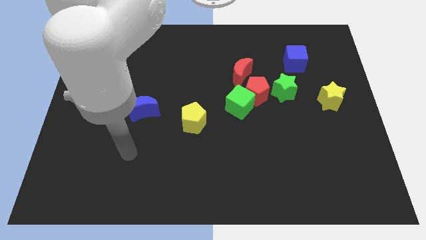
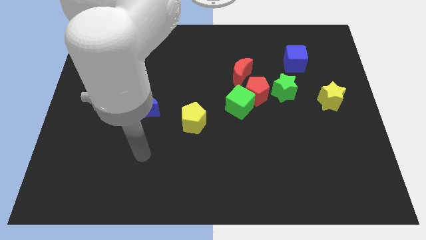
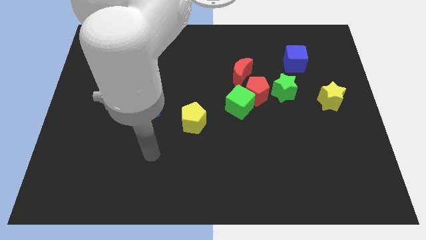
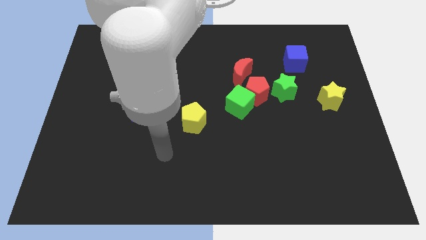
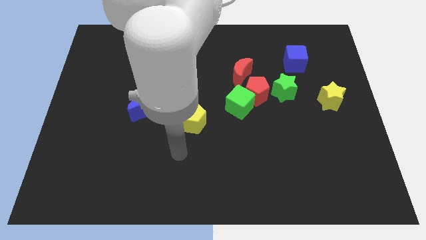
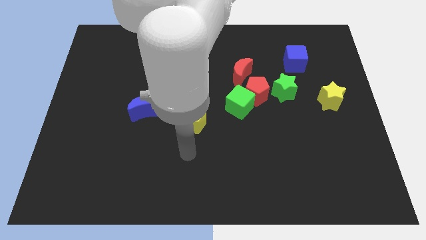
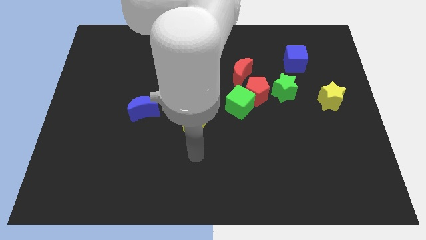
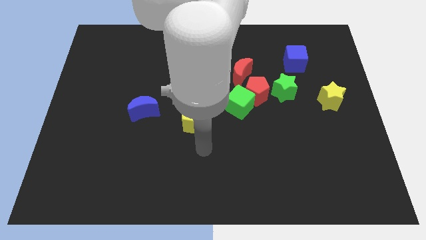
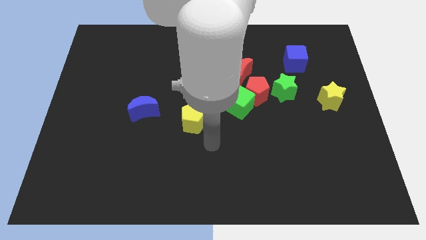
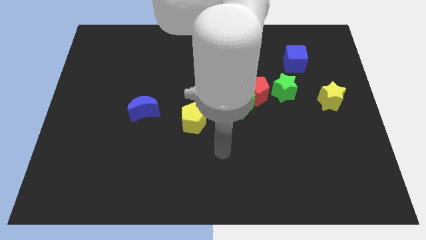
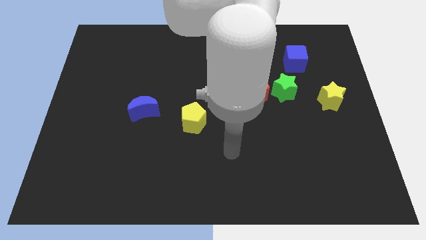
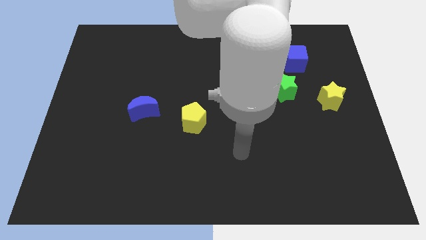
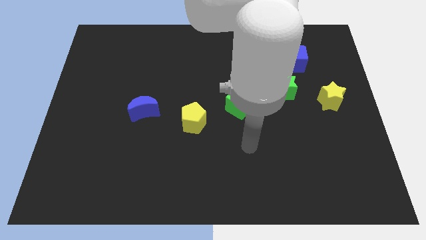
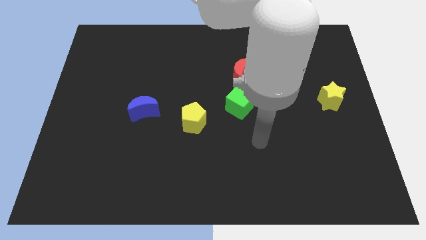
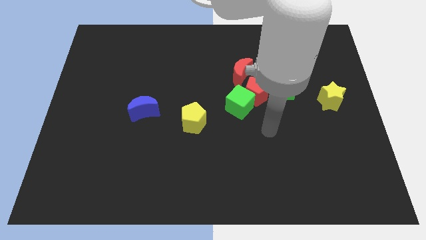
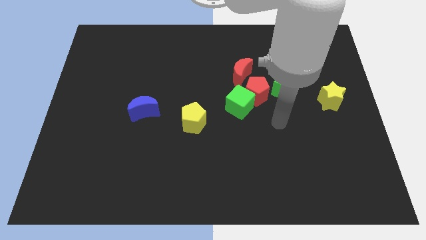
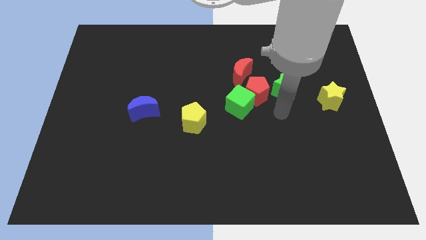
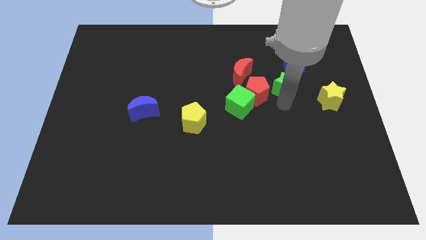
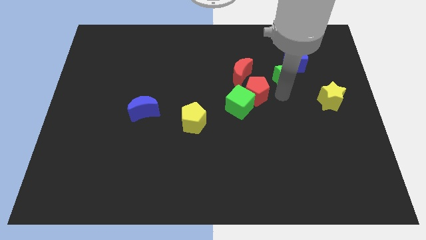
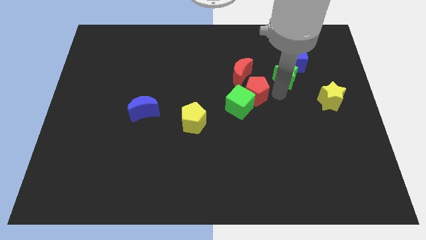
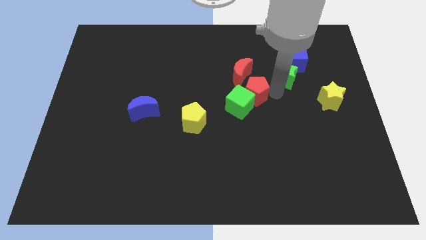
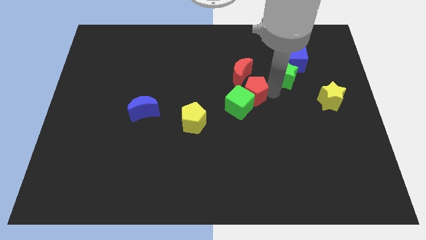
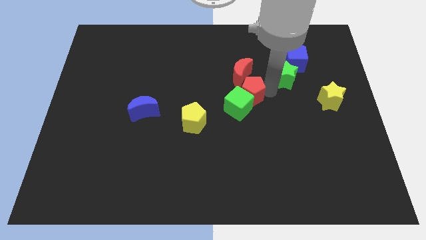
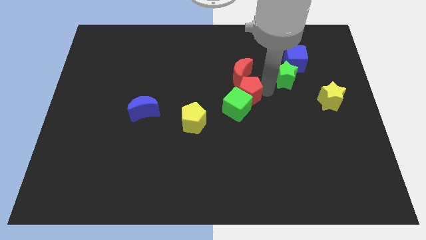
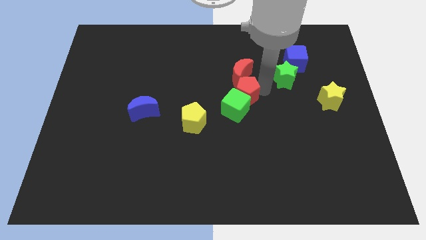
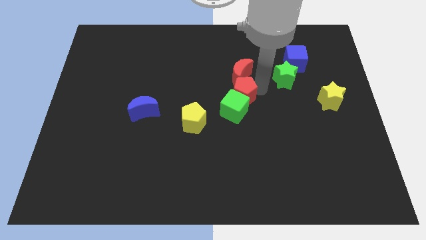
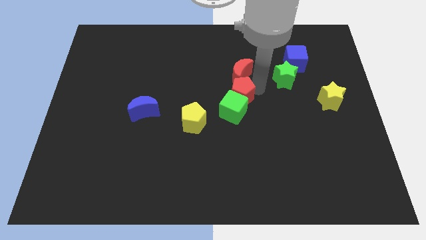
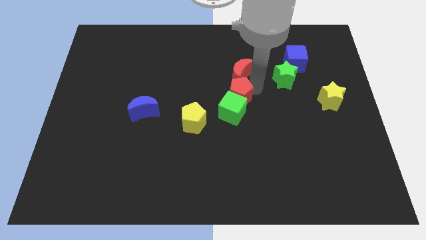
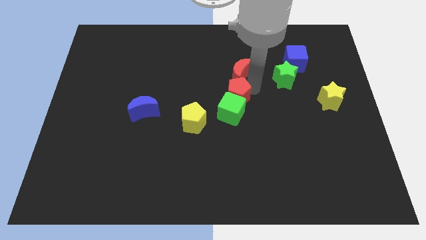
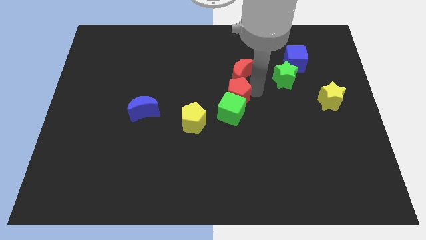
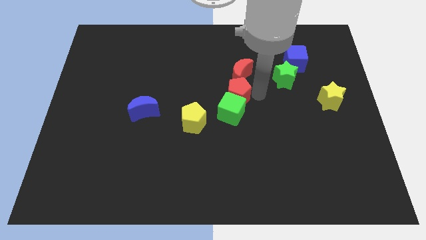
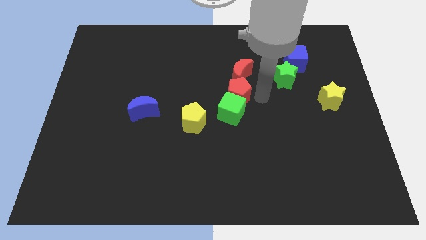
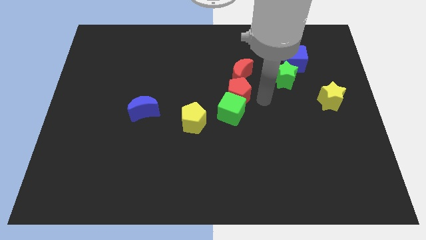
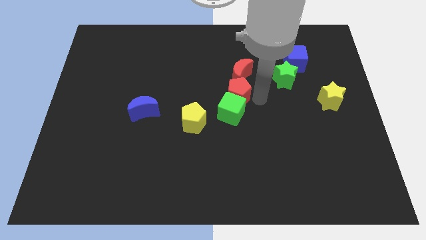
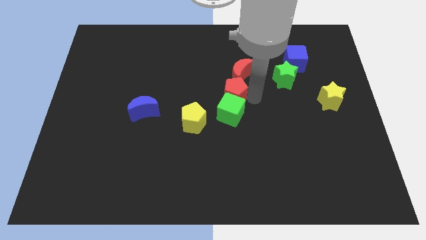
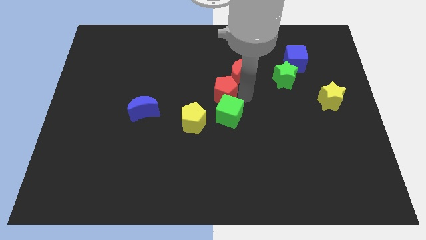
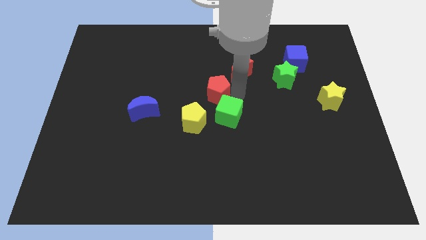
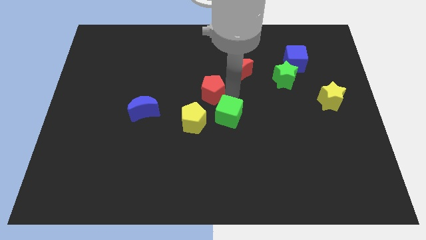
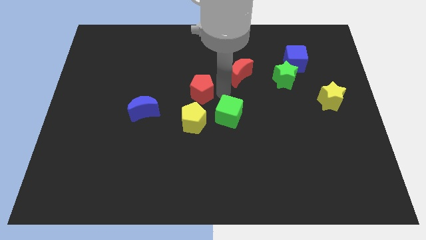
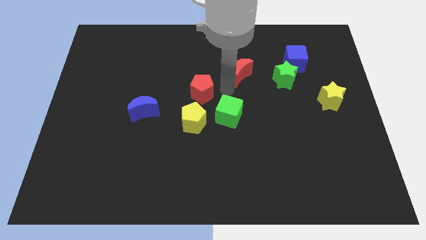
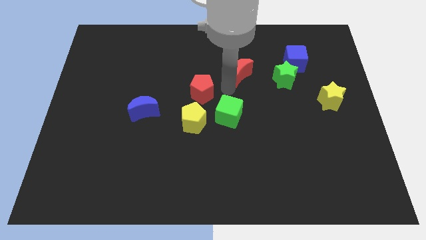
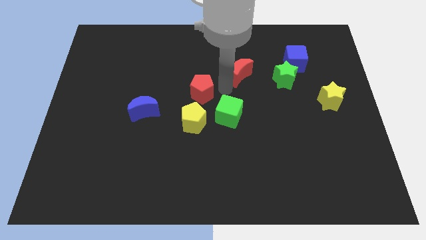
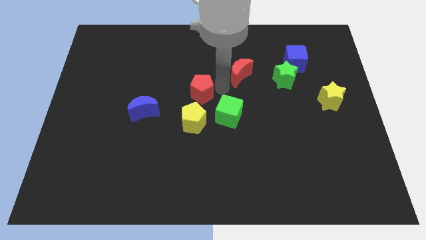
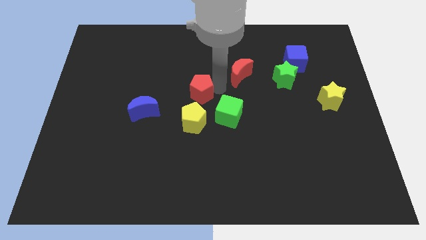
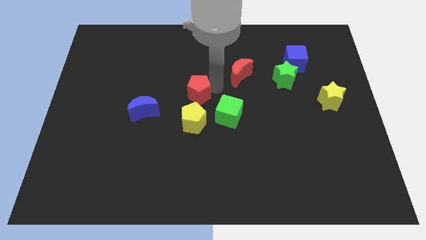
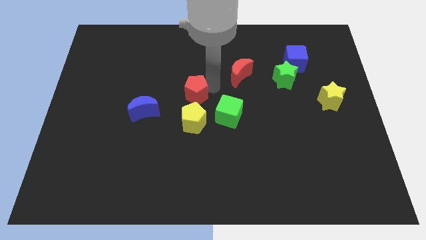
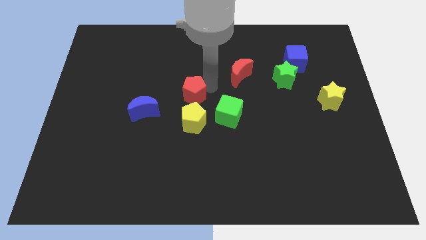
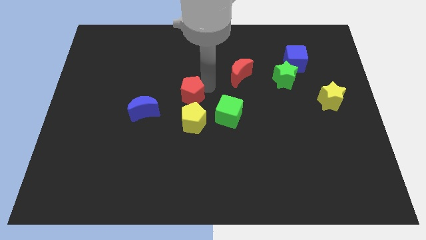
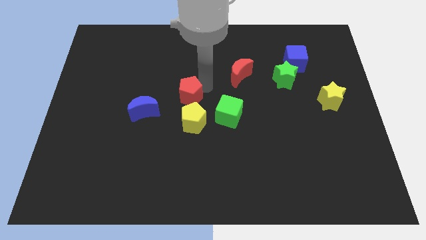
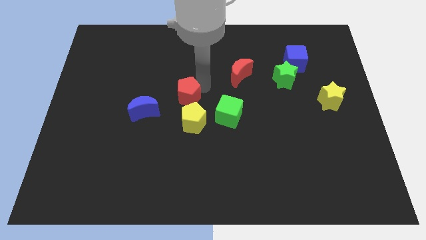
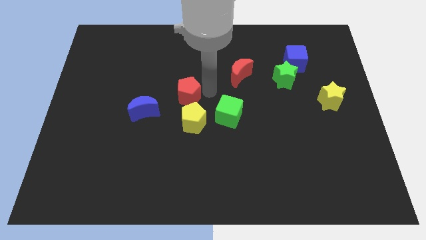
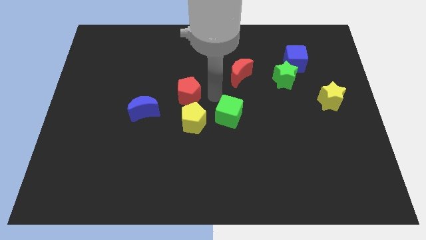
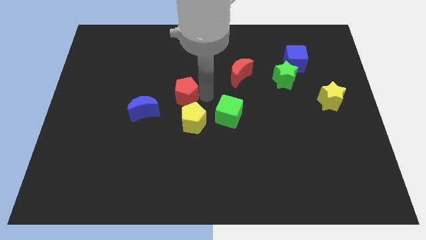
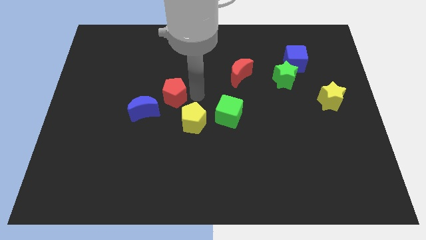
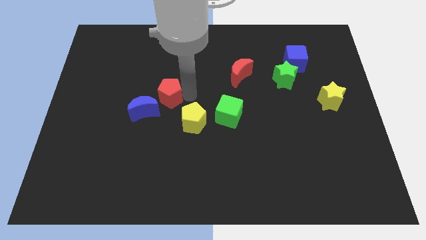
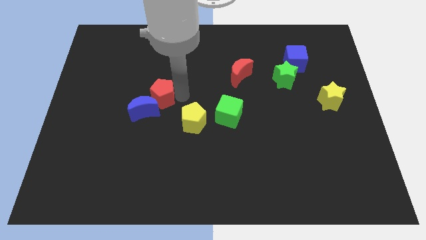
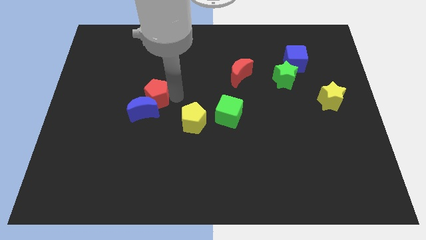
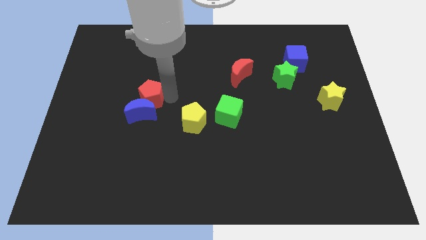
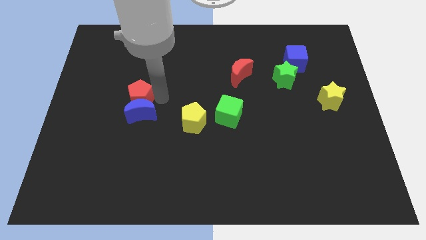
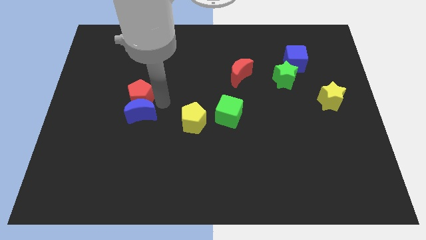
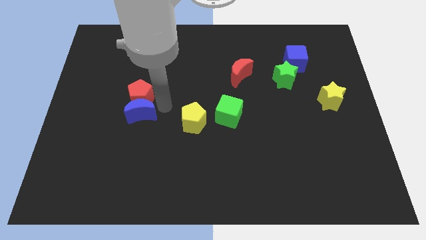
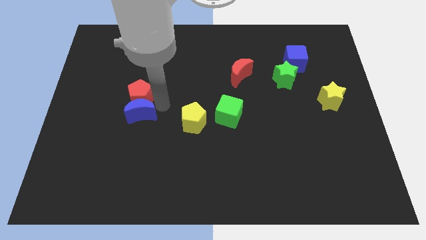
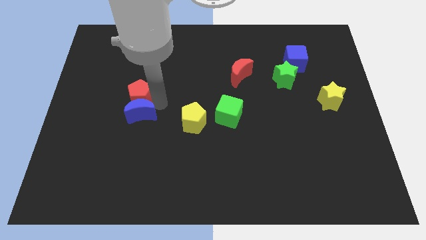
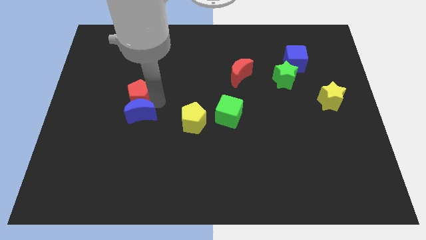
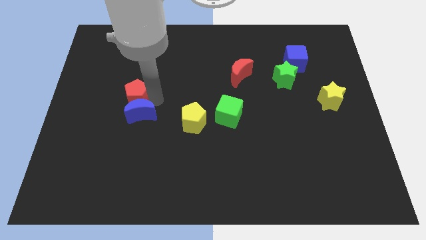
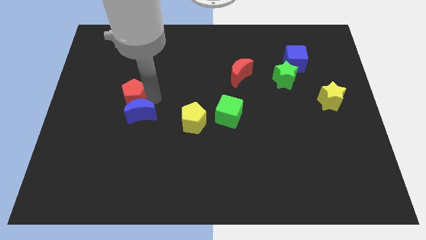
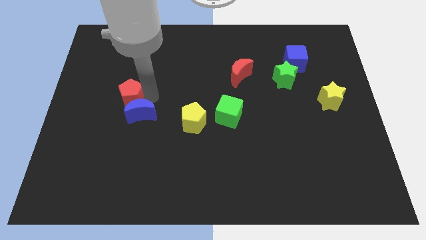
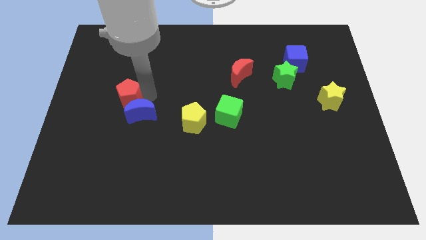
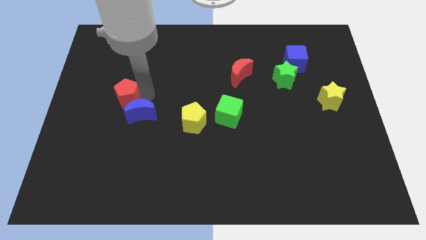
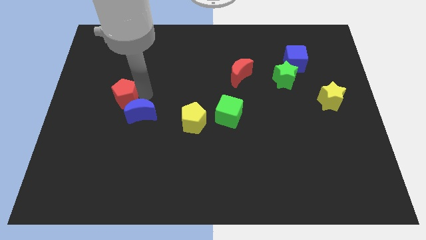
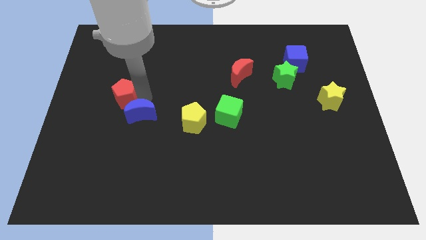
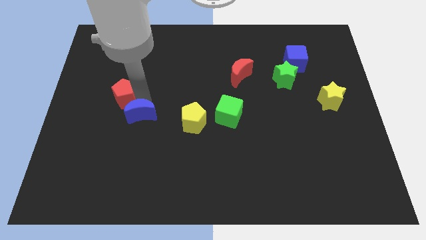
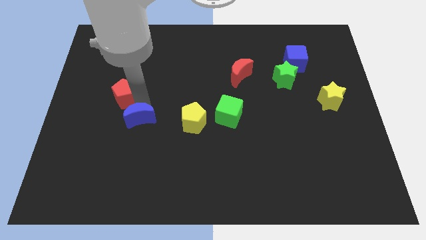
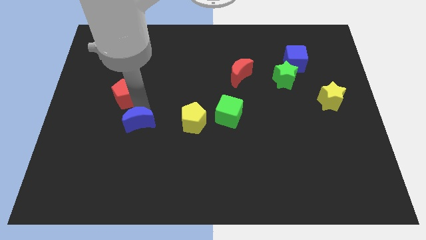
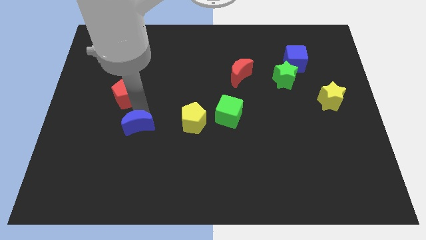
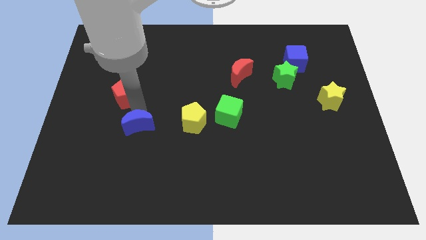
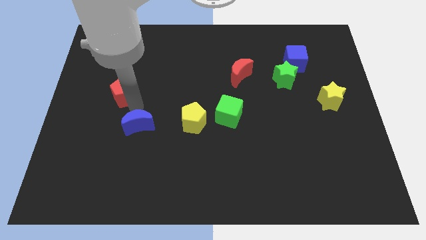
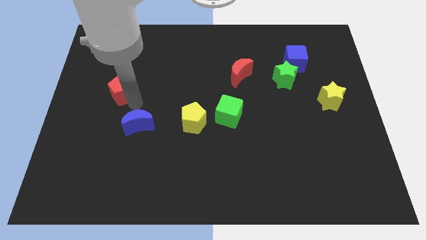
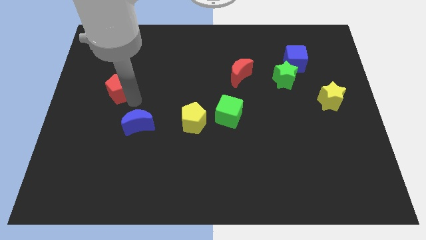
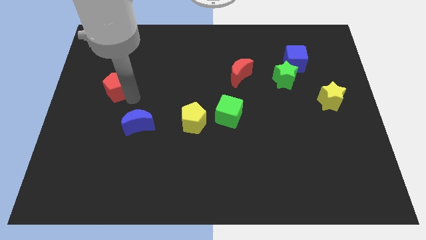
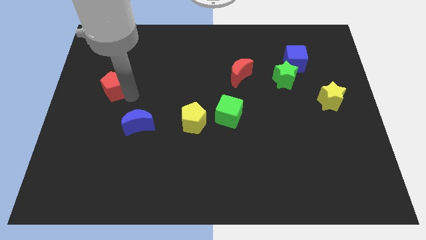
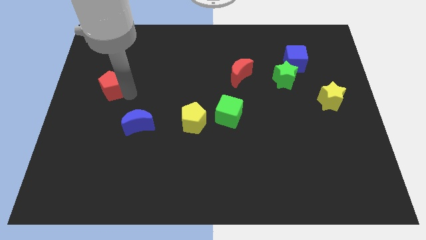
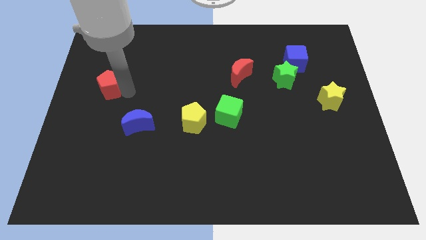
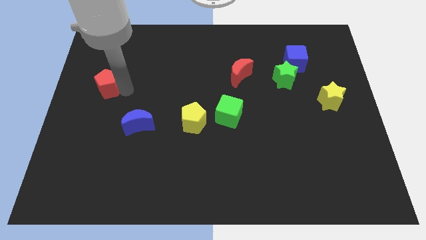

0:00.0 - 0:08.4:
push the red pentagon to the left side
